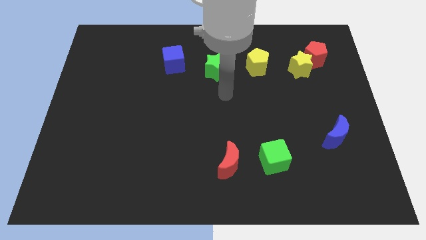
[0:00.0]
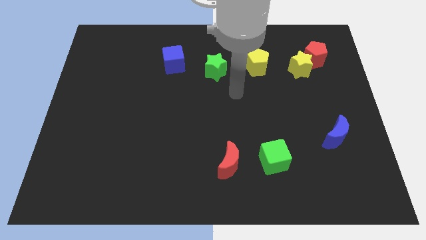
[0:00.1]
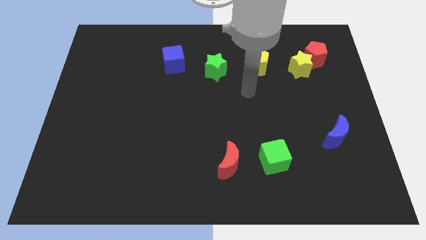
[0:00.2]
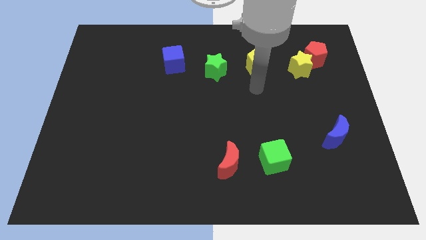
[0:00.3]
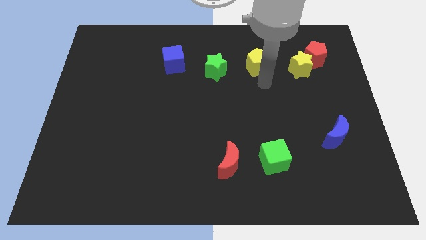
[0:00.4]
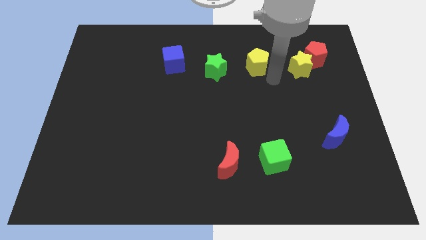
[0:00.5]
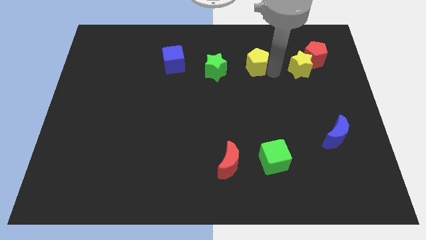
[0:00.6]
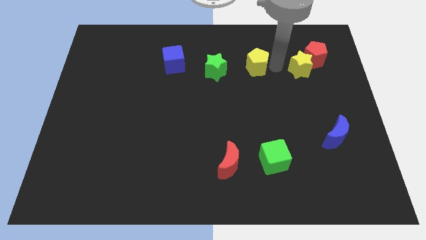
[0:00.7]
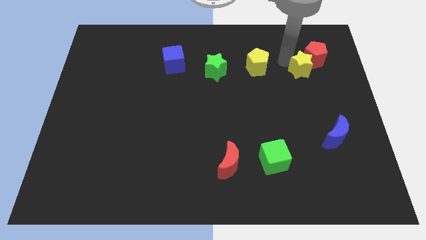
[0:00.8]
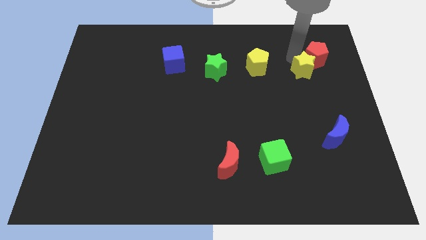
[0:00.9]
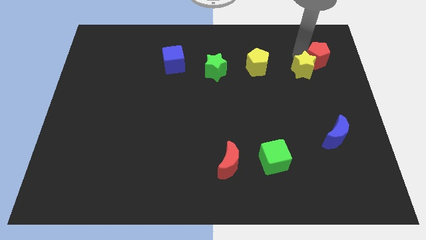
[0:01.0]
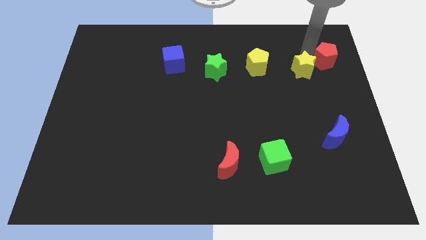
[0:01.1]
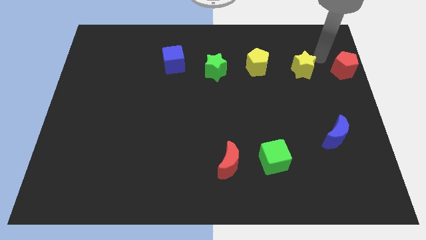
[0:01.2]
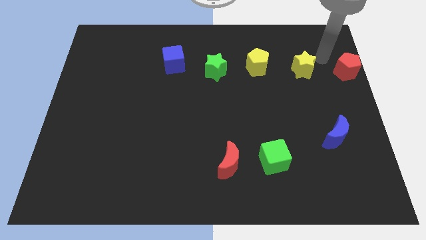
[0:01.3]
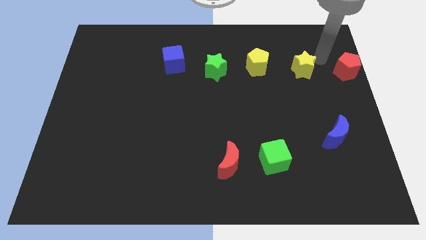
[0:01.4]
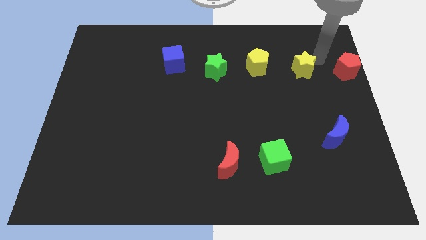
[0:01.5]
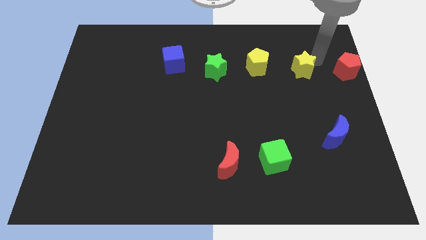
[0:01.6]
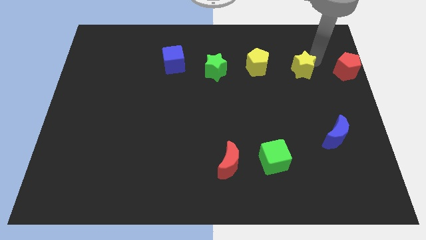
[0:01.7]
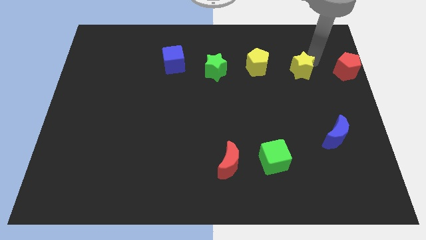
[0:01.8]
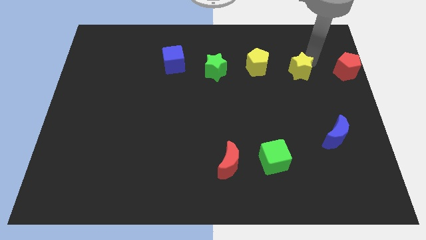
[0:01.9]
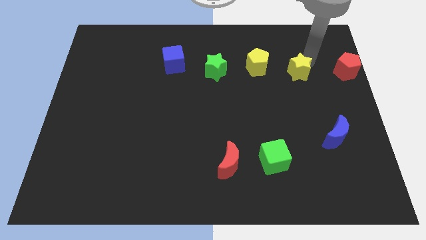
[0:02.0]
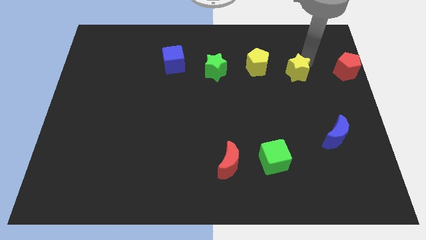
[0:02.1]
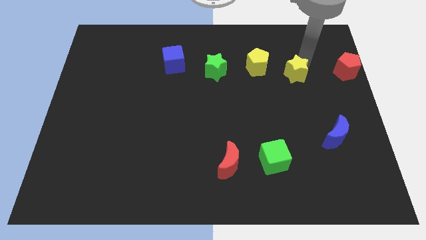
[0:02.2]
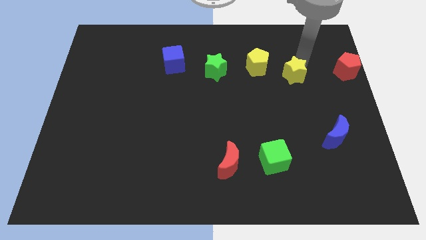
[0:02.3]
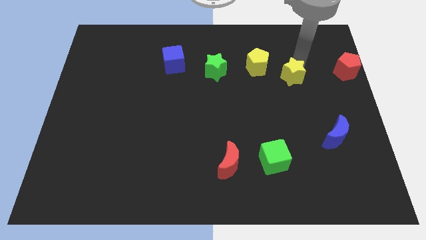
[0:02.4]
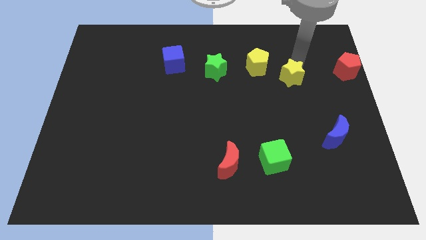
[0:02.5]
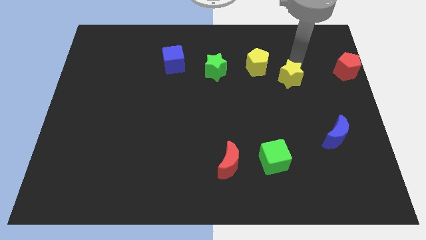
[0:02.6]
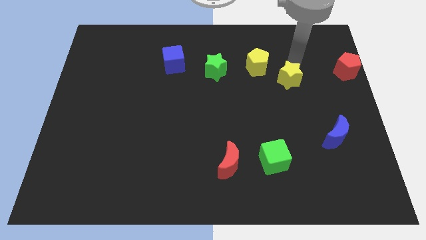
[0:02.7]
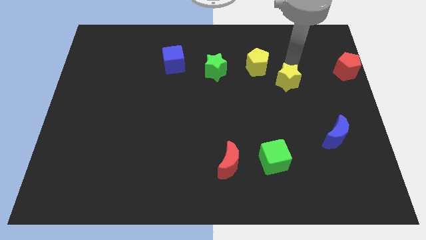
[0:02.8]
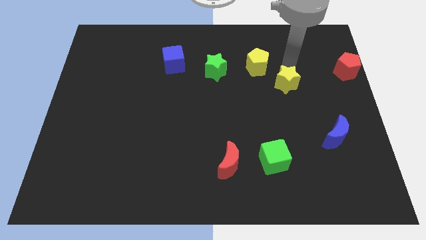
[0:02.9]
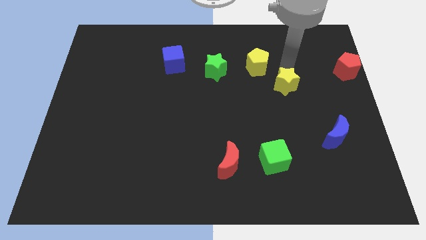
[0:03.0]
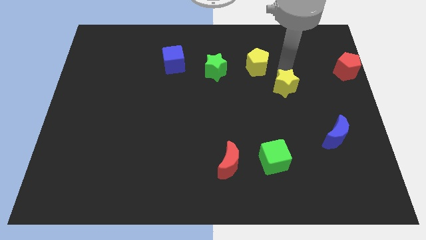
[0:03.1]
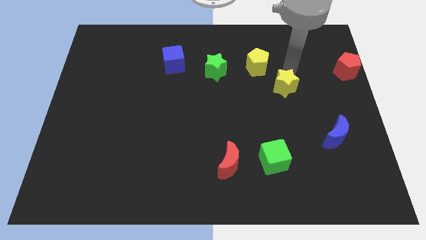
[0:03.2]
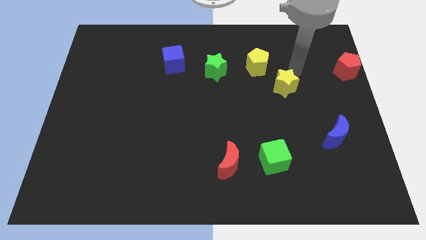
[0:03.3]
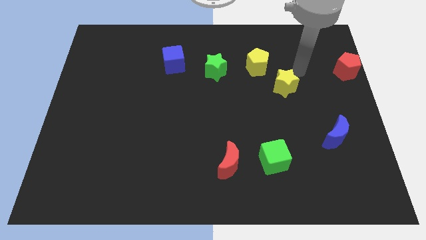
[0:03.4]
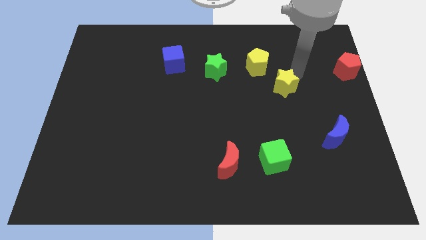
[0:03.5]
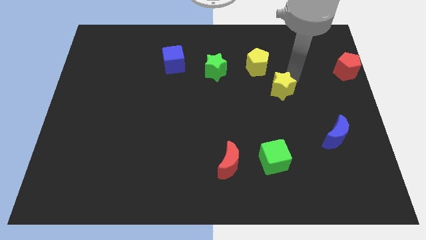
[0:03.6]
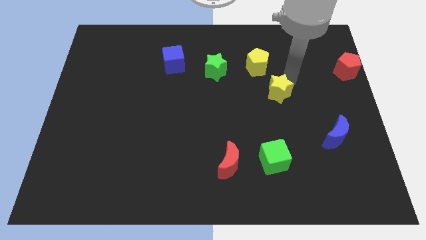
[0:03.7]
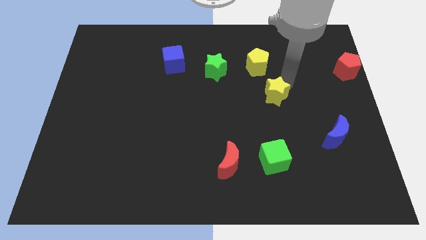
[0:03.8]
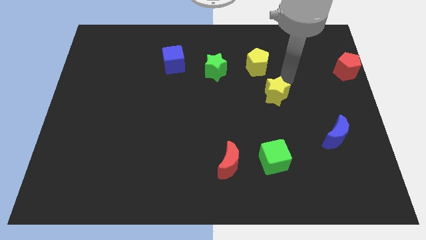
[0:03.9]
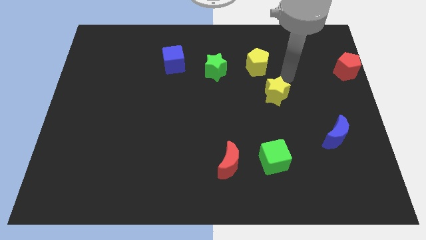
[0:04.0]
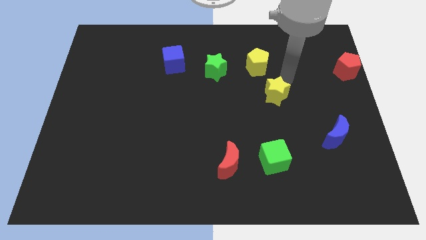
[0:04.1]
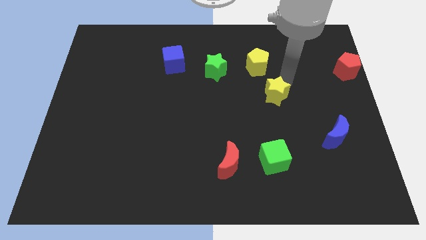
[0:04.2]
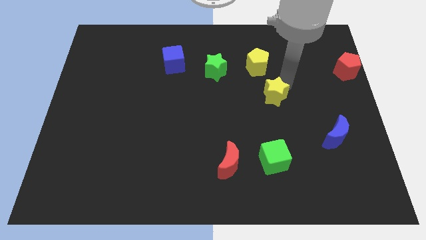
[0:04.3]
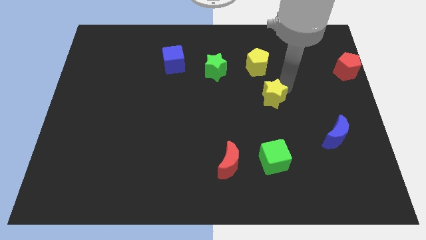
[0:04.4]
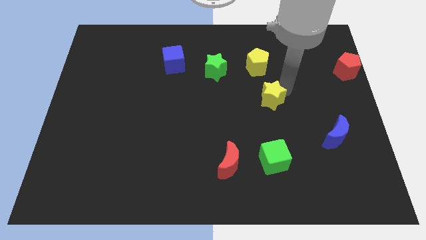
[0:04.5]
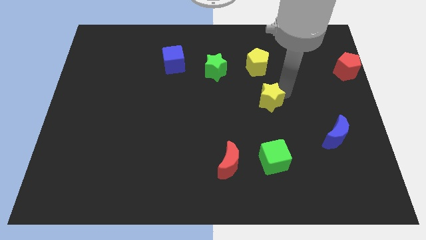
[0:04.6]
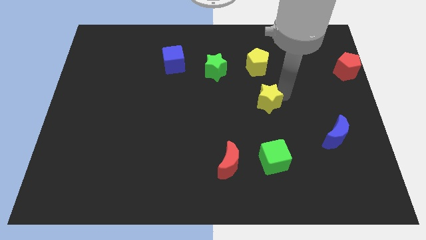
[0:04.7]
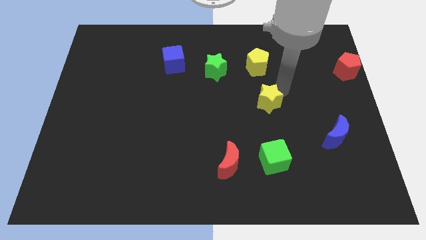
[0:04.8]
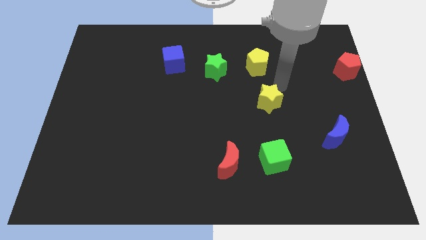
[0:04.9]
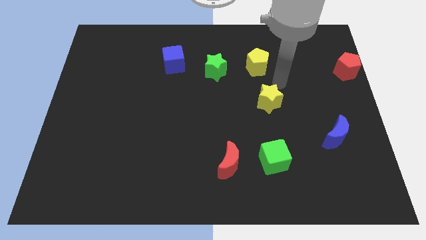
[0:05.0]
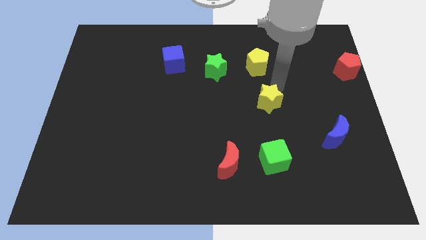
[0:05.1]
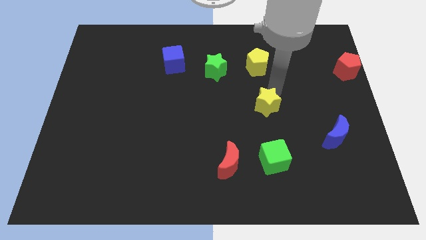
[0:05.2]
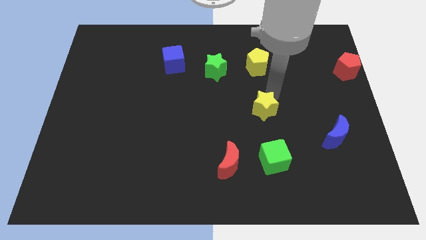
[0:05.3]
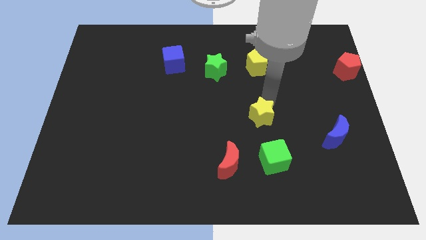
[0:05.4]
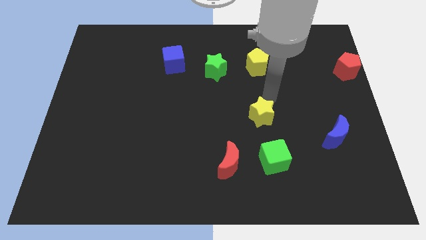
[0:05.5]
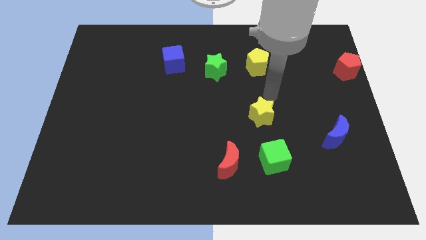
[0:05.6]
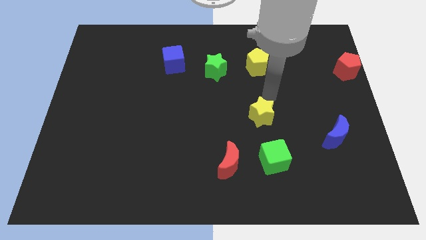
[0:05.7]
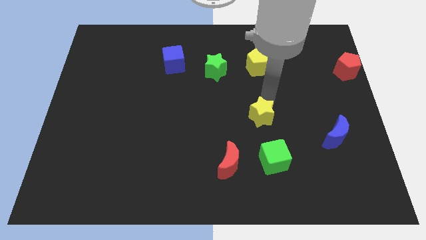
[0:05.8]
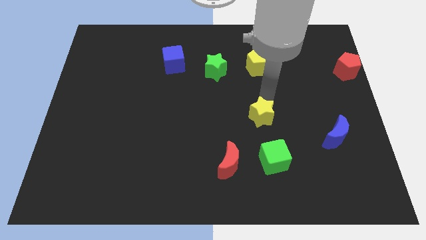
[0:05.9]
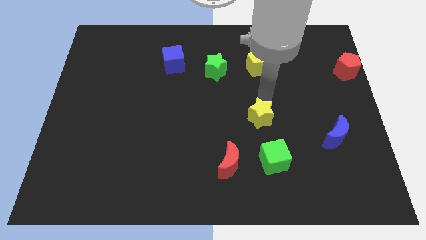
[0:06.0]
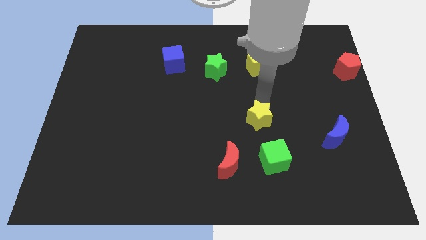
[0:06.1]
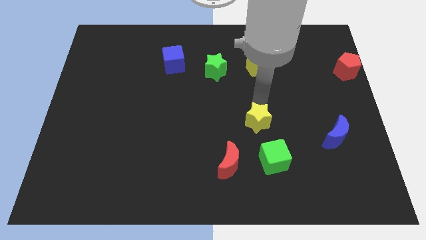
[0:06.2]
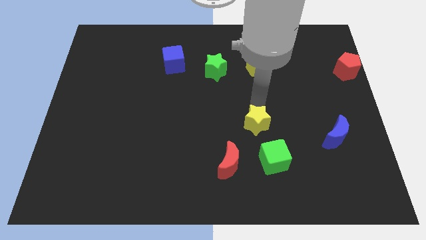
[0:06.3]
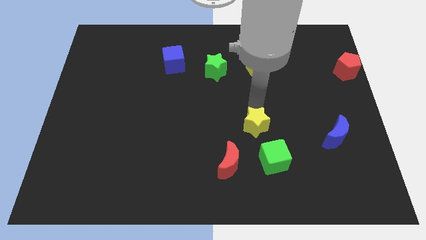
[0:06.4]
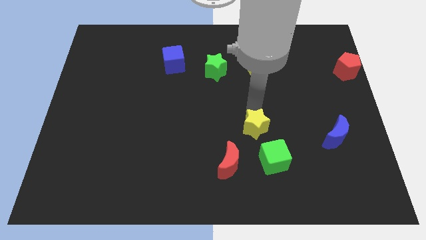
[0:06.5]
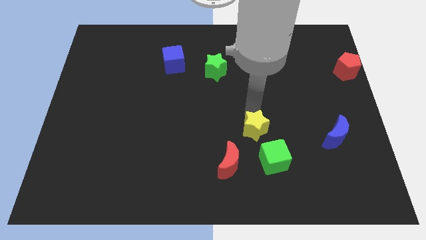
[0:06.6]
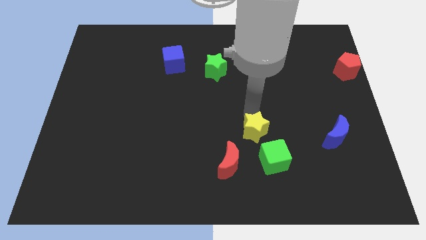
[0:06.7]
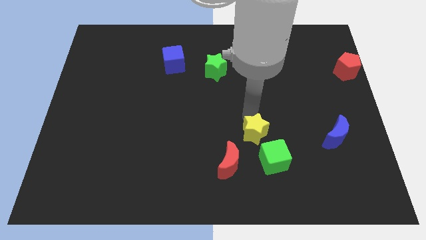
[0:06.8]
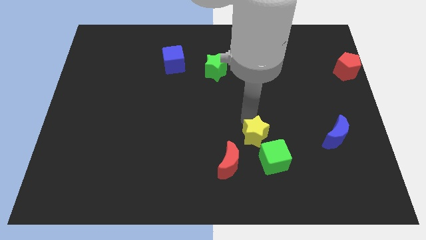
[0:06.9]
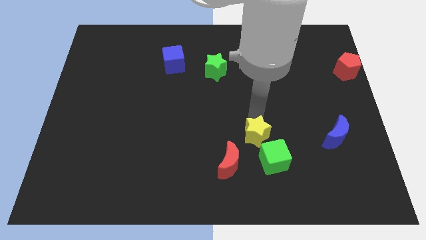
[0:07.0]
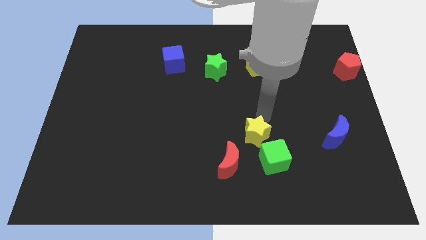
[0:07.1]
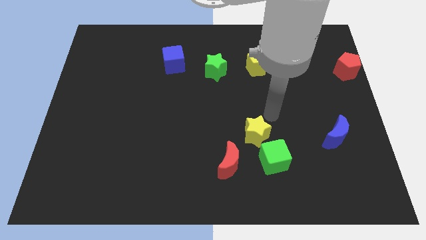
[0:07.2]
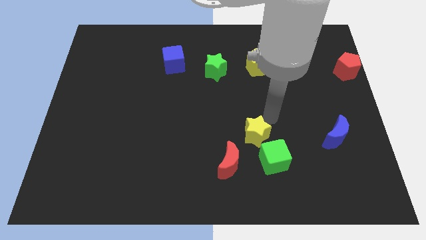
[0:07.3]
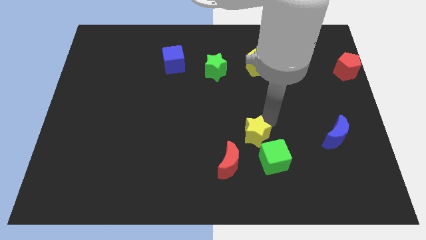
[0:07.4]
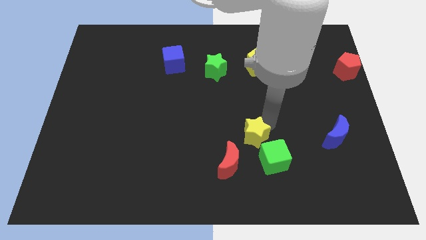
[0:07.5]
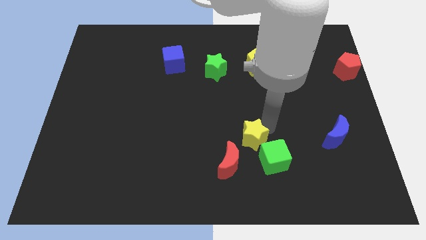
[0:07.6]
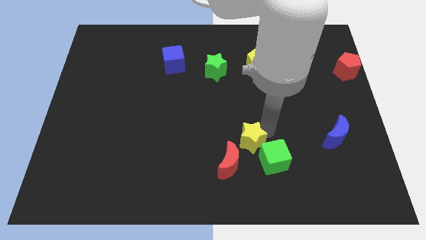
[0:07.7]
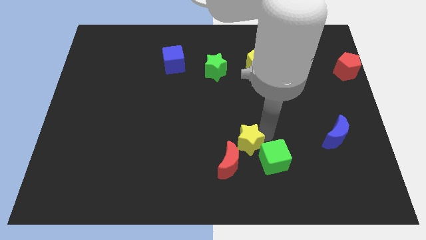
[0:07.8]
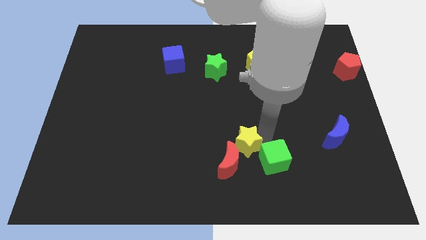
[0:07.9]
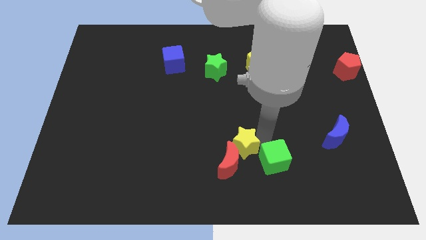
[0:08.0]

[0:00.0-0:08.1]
put the yellow star to the red moon
